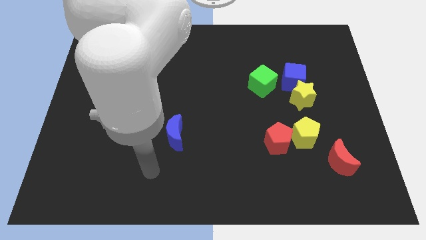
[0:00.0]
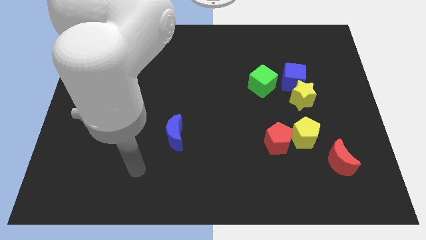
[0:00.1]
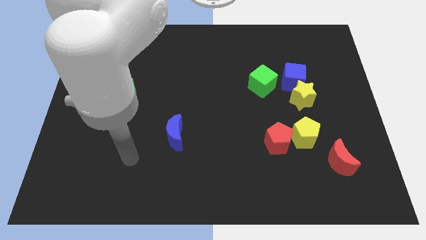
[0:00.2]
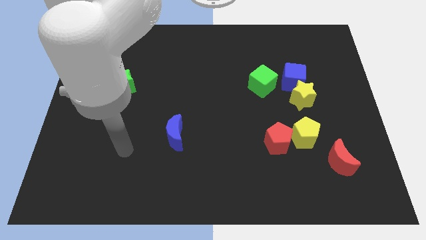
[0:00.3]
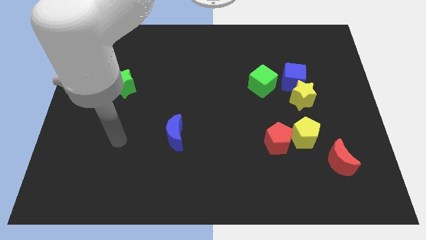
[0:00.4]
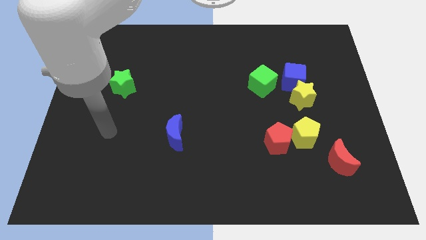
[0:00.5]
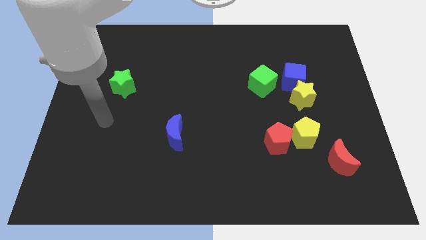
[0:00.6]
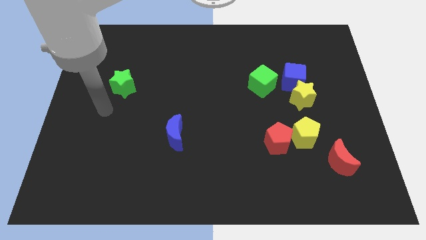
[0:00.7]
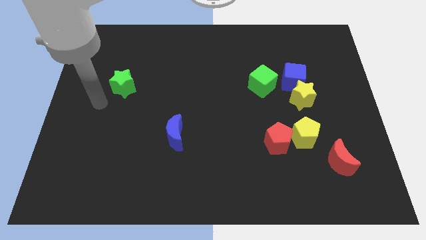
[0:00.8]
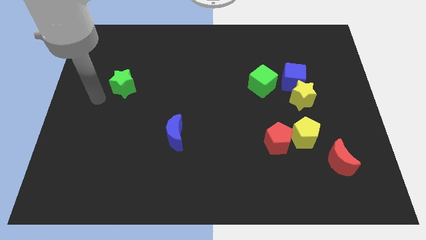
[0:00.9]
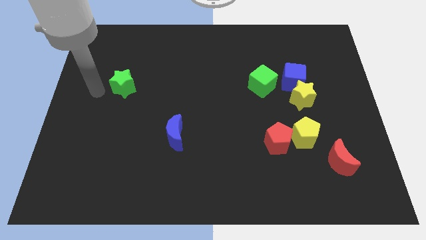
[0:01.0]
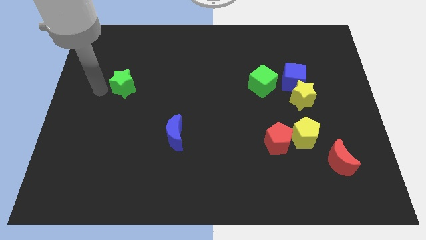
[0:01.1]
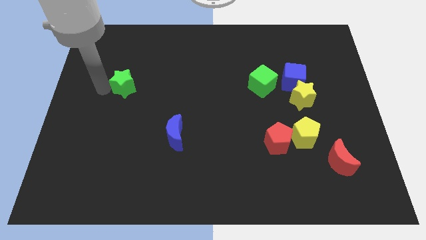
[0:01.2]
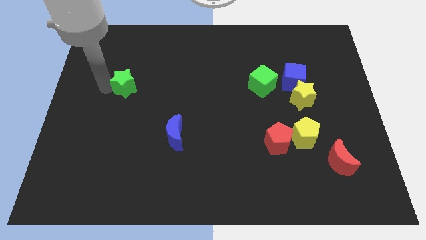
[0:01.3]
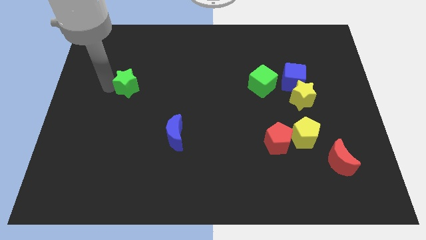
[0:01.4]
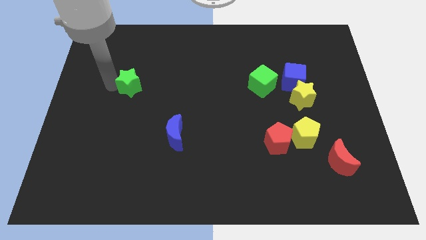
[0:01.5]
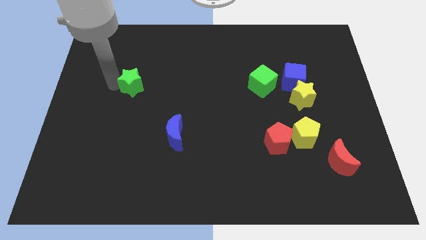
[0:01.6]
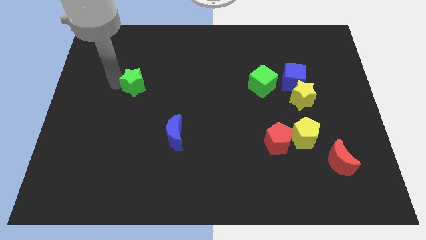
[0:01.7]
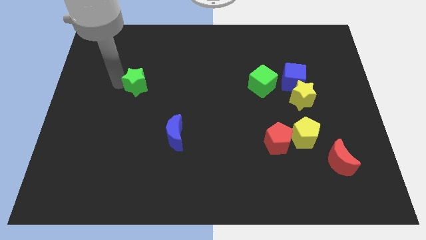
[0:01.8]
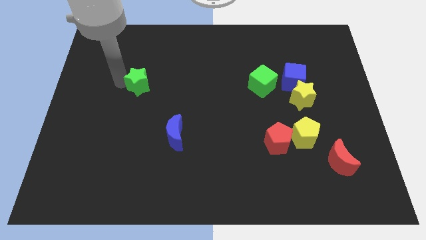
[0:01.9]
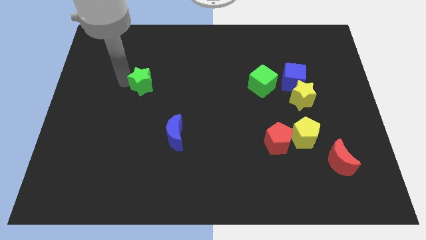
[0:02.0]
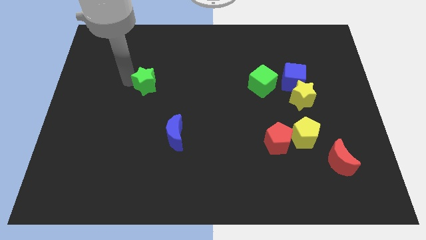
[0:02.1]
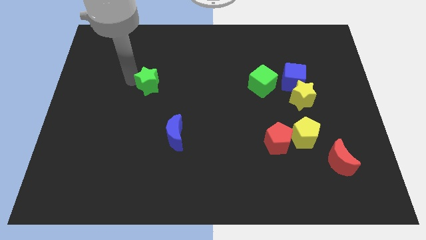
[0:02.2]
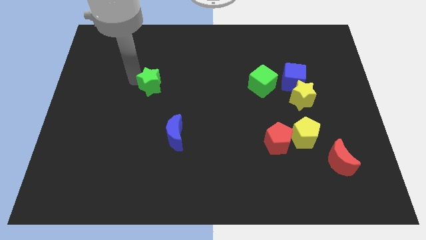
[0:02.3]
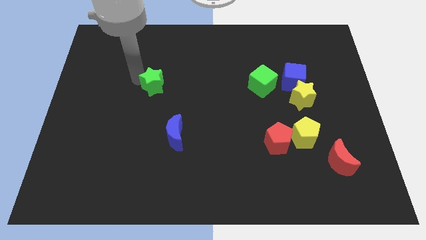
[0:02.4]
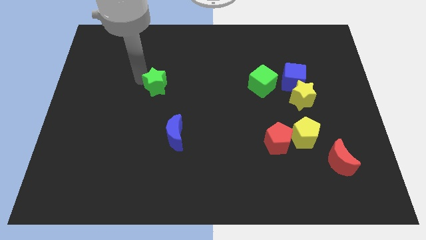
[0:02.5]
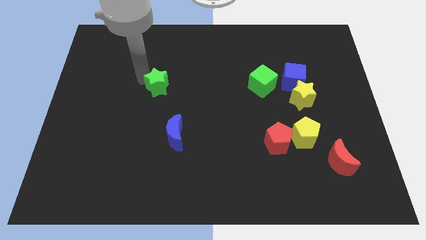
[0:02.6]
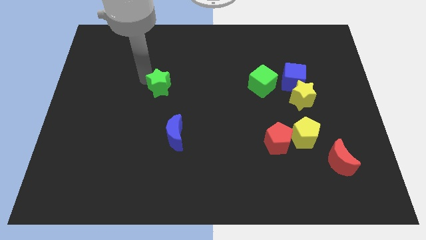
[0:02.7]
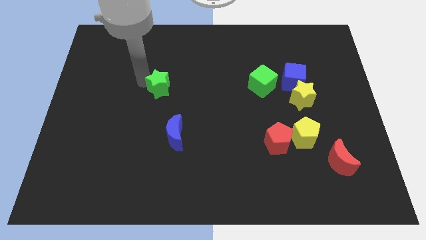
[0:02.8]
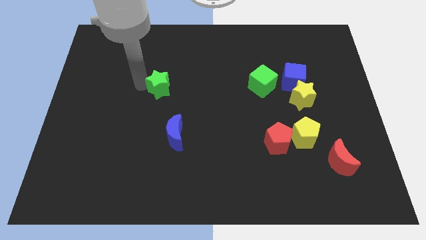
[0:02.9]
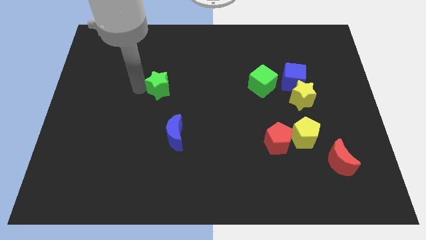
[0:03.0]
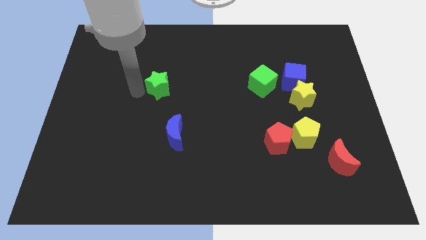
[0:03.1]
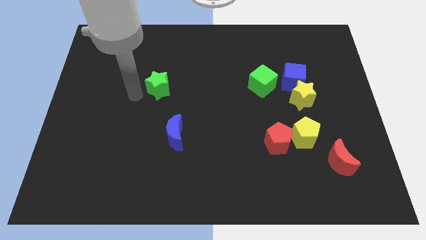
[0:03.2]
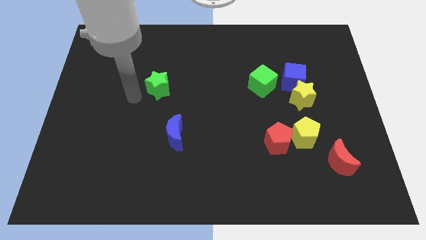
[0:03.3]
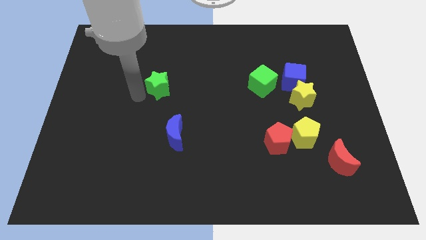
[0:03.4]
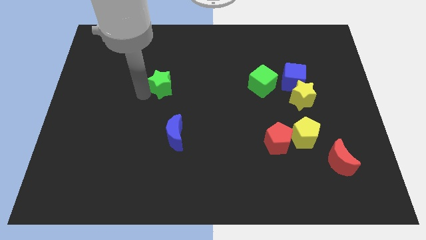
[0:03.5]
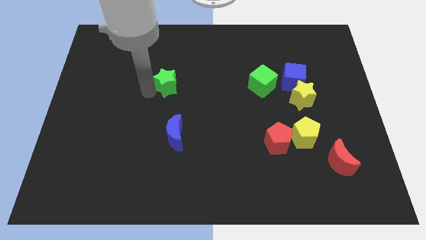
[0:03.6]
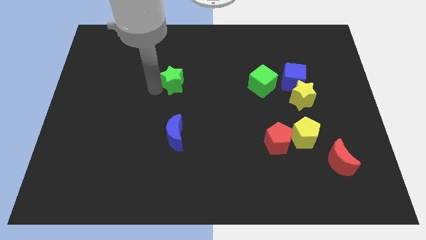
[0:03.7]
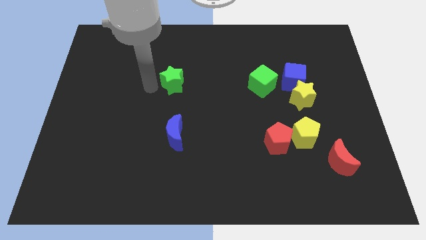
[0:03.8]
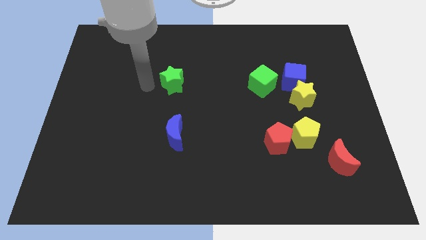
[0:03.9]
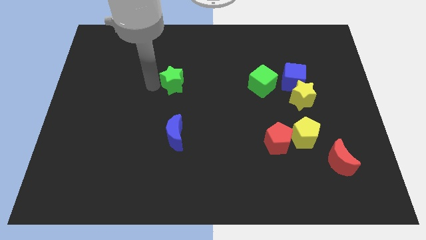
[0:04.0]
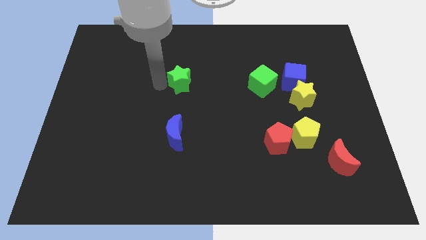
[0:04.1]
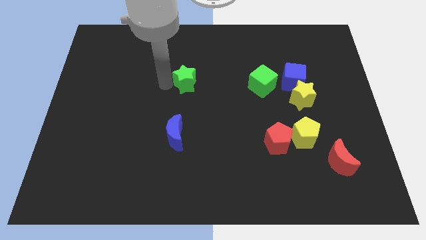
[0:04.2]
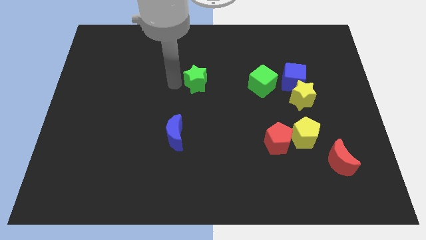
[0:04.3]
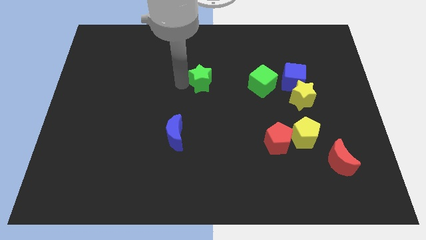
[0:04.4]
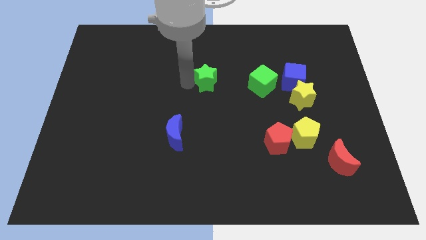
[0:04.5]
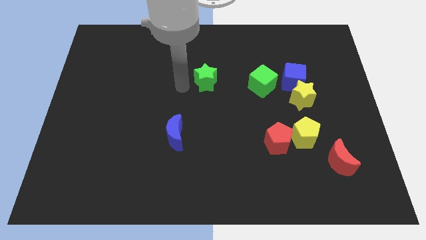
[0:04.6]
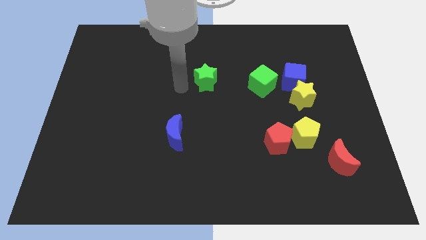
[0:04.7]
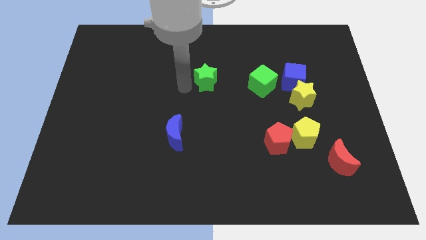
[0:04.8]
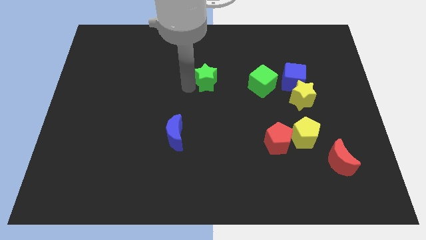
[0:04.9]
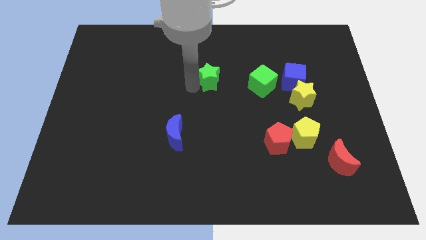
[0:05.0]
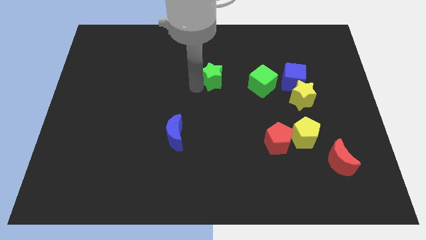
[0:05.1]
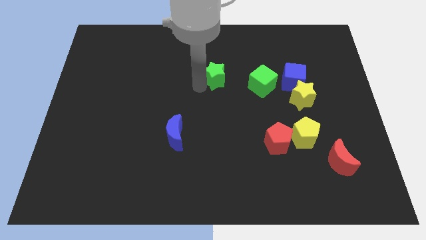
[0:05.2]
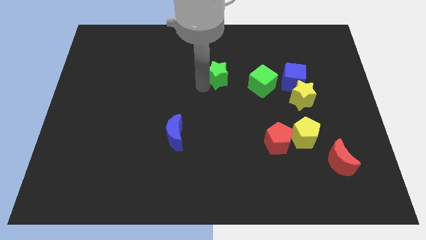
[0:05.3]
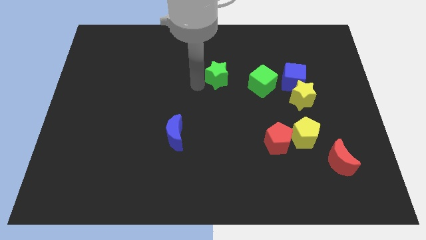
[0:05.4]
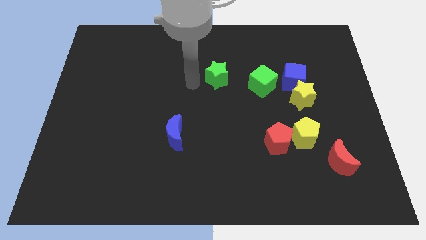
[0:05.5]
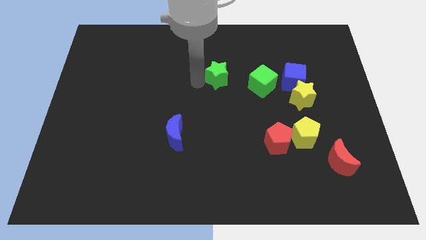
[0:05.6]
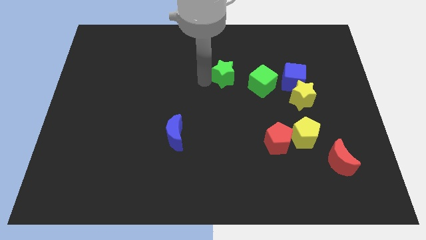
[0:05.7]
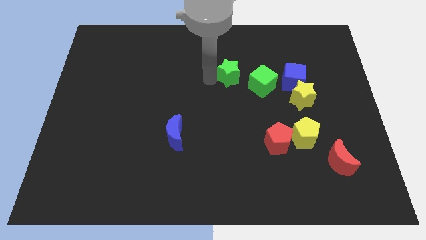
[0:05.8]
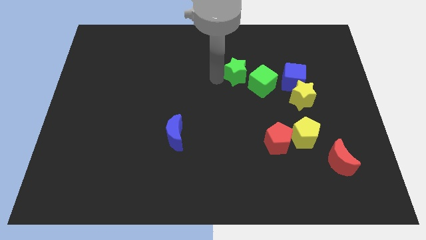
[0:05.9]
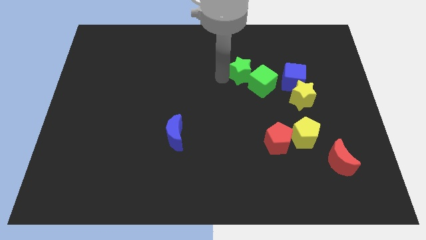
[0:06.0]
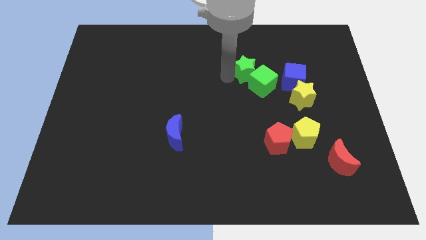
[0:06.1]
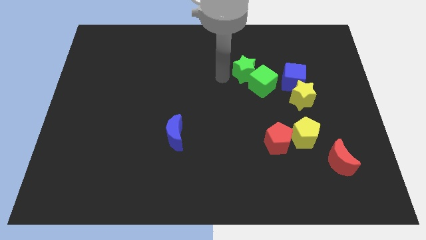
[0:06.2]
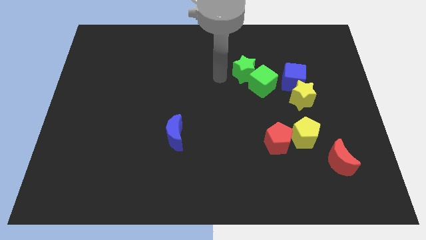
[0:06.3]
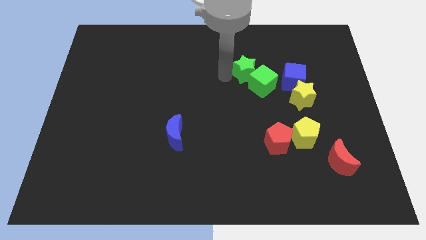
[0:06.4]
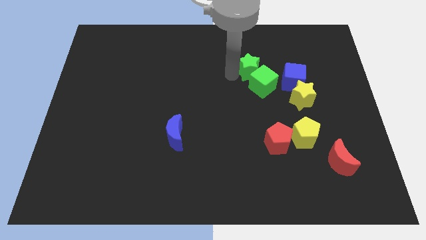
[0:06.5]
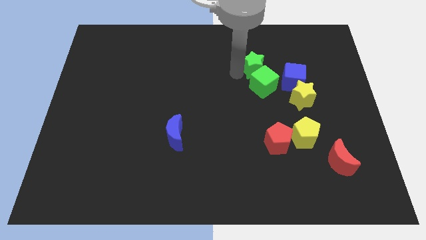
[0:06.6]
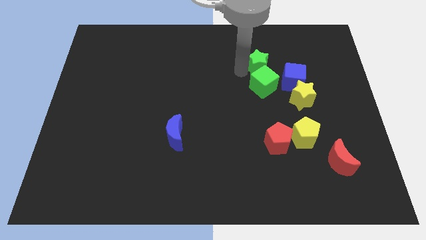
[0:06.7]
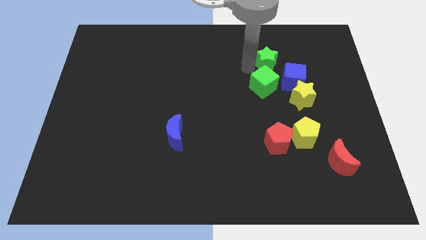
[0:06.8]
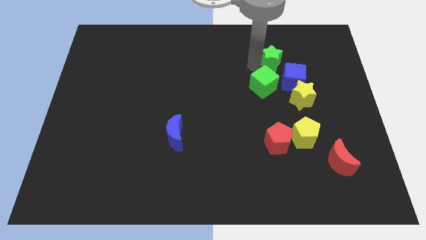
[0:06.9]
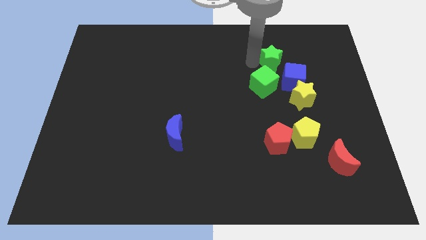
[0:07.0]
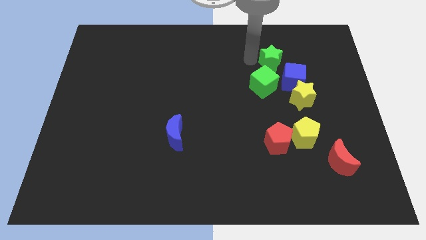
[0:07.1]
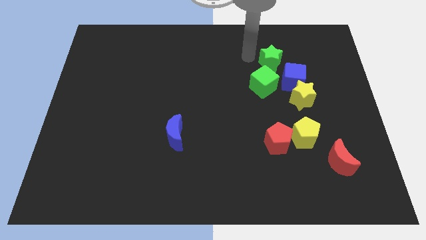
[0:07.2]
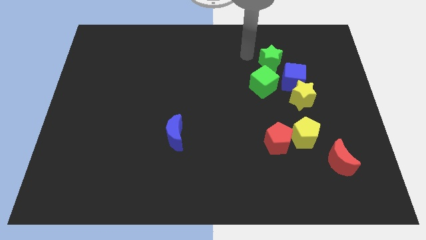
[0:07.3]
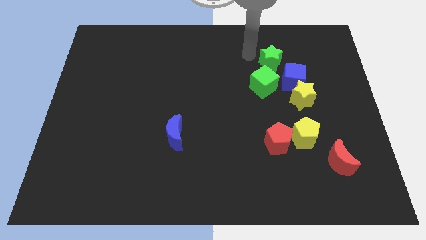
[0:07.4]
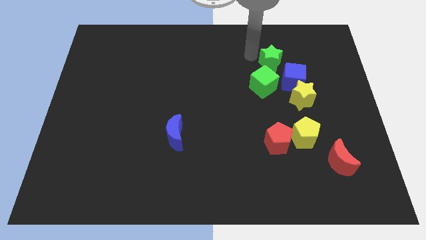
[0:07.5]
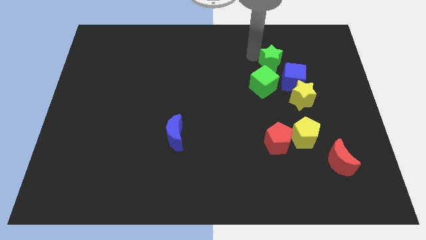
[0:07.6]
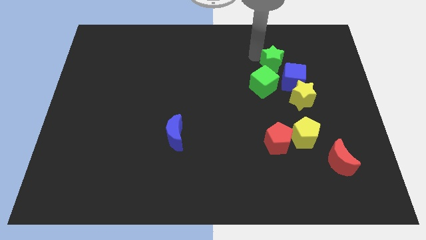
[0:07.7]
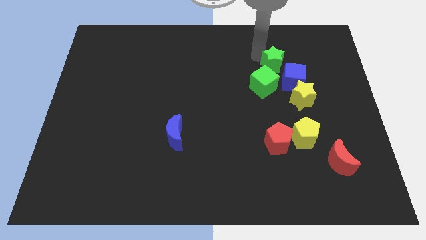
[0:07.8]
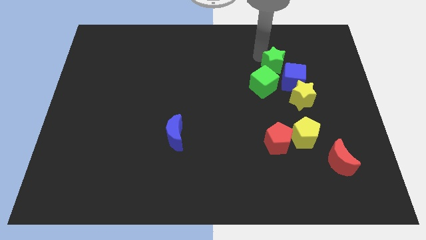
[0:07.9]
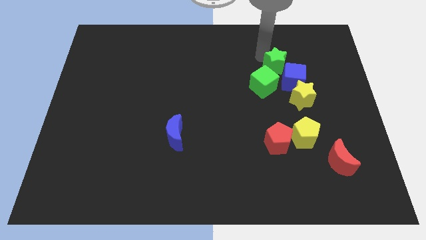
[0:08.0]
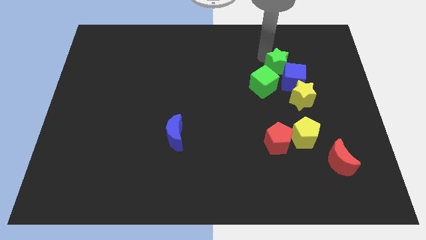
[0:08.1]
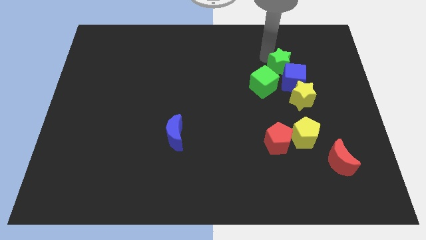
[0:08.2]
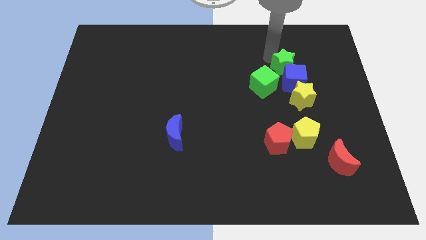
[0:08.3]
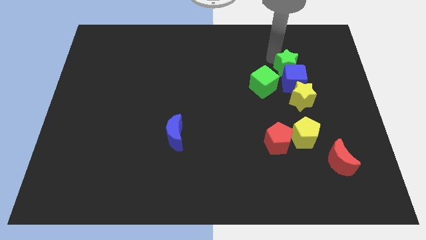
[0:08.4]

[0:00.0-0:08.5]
slide the green star to the top right of the blue cube
